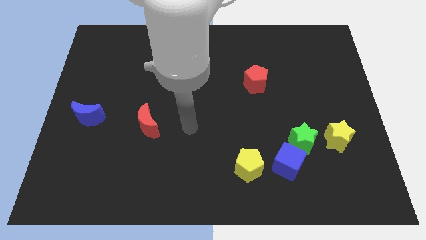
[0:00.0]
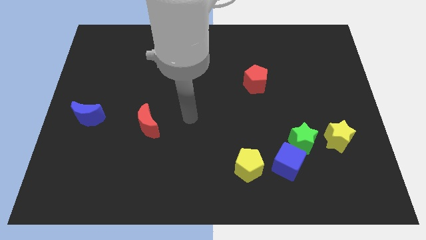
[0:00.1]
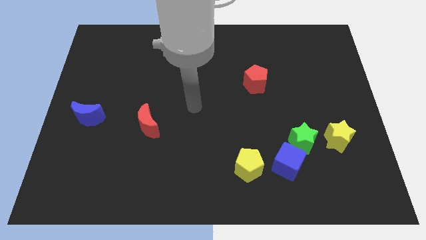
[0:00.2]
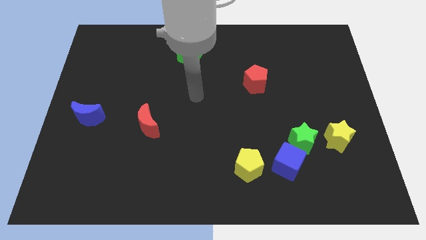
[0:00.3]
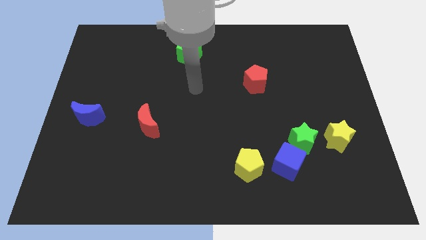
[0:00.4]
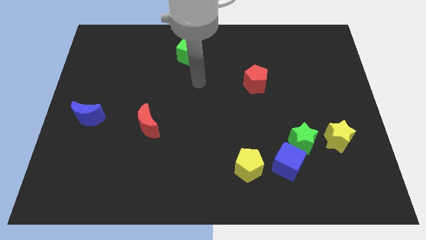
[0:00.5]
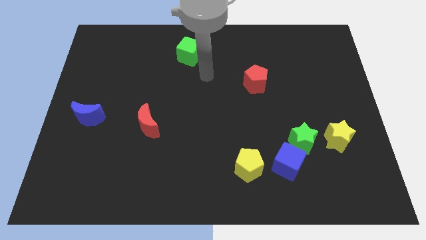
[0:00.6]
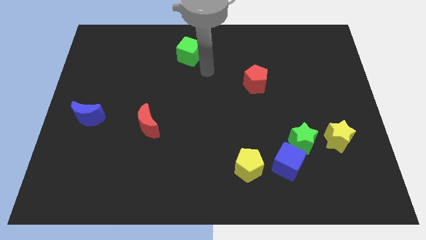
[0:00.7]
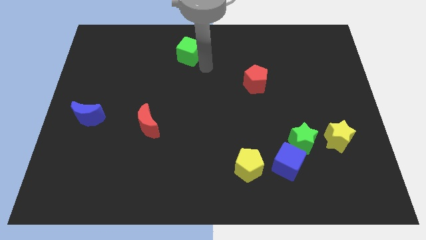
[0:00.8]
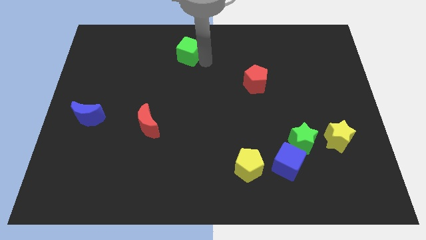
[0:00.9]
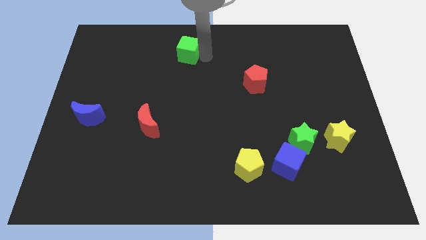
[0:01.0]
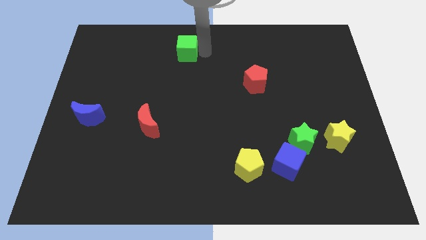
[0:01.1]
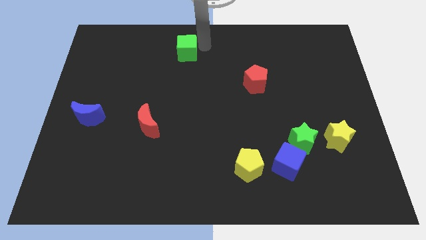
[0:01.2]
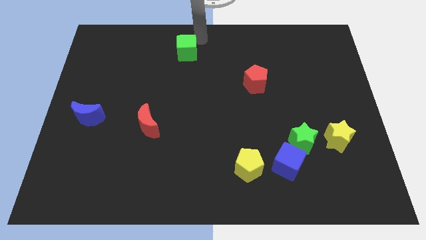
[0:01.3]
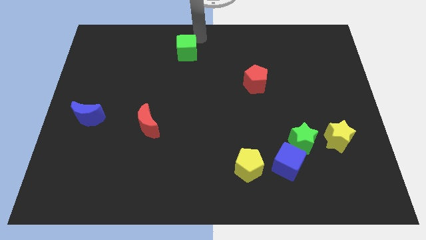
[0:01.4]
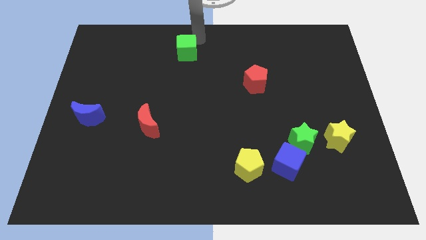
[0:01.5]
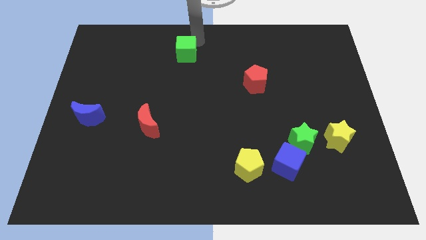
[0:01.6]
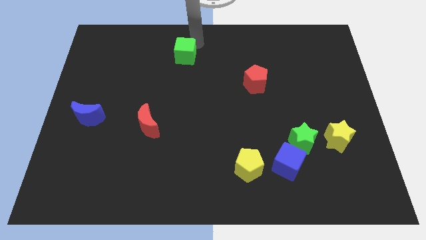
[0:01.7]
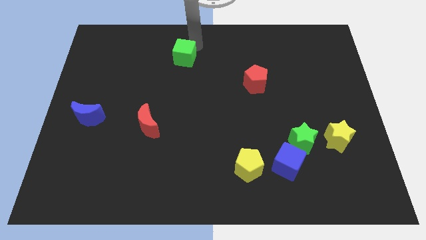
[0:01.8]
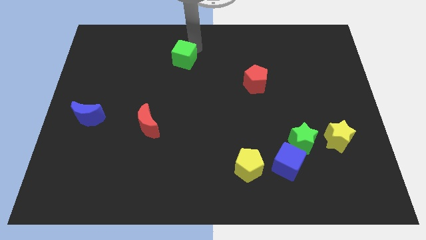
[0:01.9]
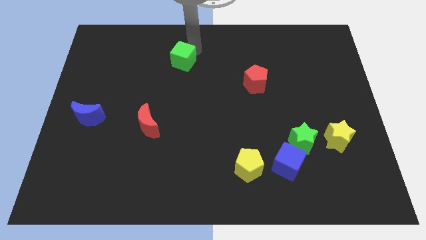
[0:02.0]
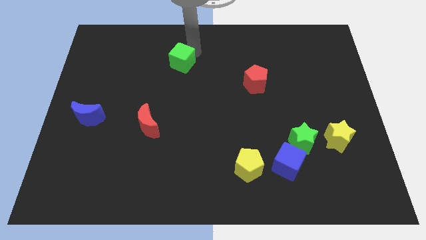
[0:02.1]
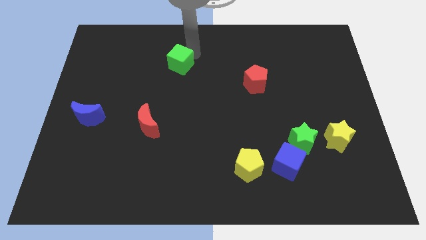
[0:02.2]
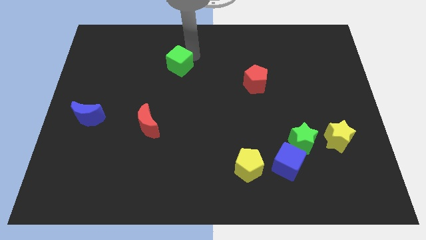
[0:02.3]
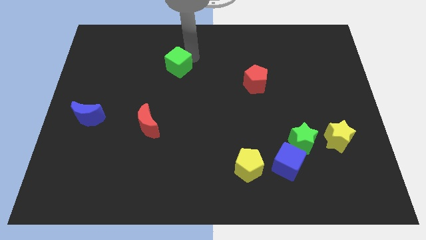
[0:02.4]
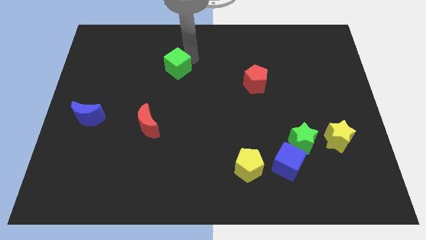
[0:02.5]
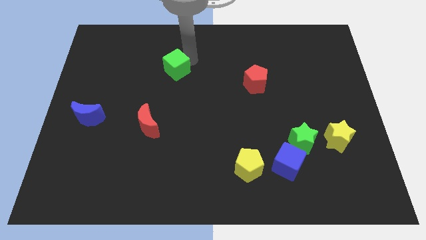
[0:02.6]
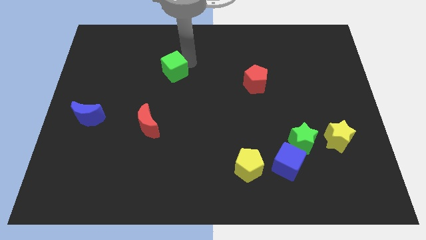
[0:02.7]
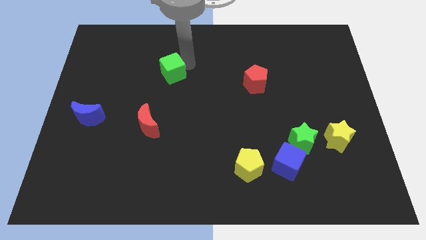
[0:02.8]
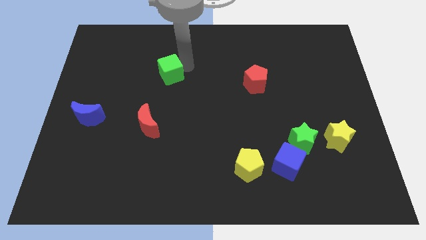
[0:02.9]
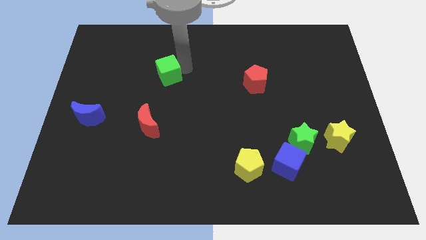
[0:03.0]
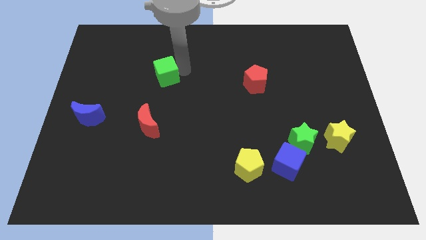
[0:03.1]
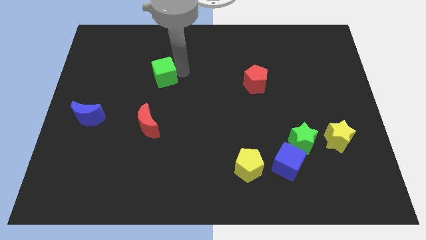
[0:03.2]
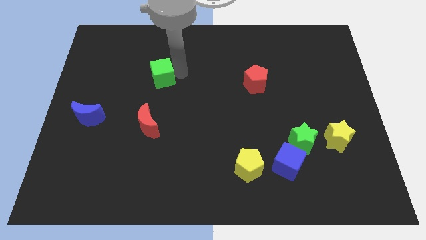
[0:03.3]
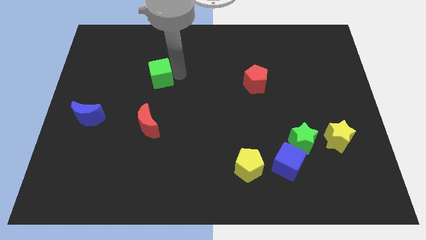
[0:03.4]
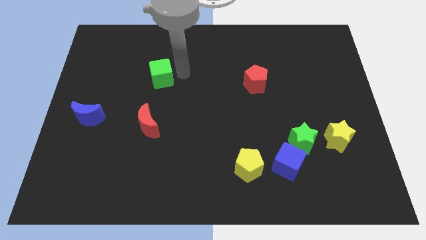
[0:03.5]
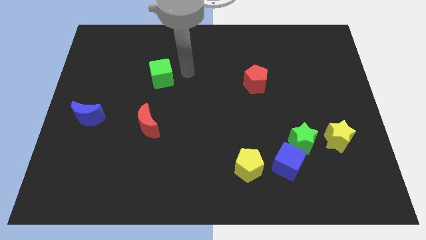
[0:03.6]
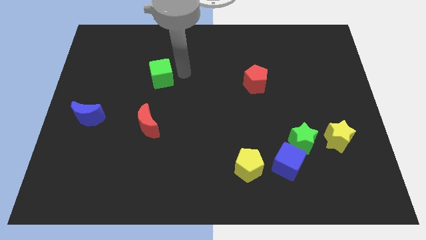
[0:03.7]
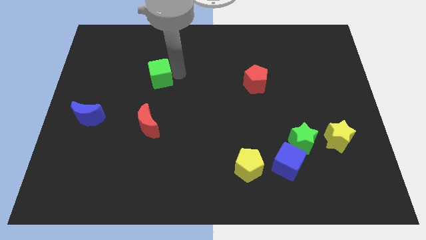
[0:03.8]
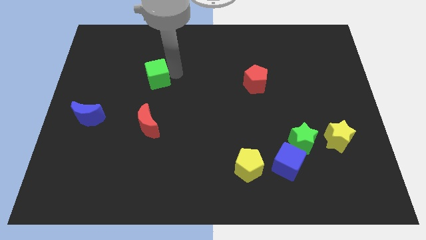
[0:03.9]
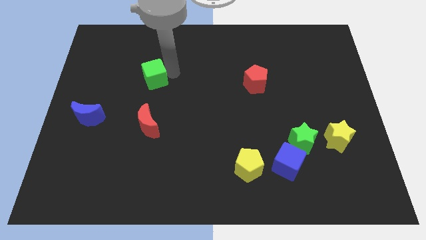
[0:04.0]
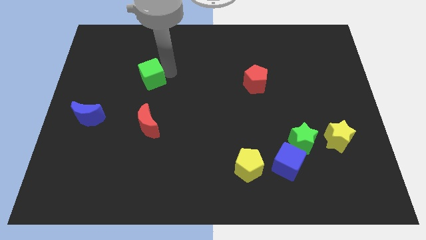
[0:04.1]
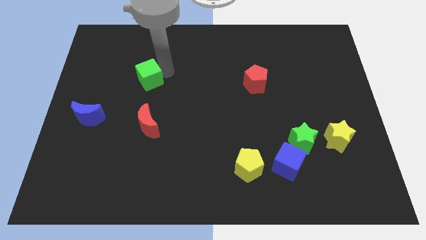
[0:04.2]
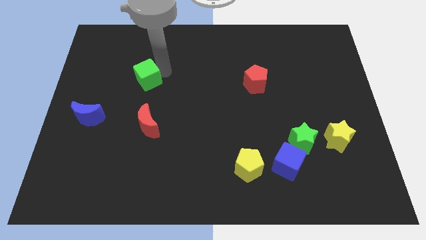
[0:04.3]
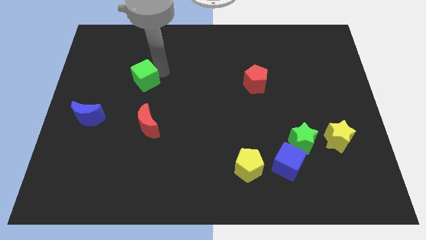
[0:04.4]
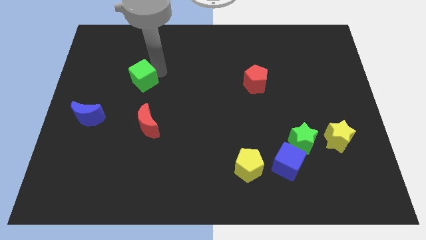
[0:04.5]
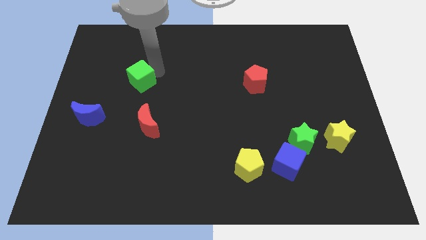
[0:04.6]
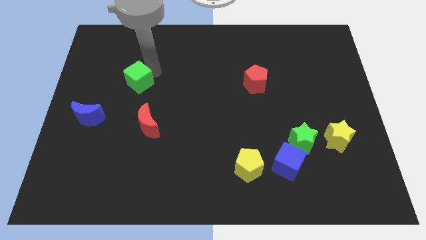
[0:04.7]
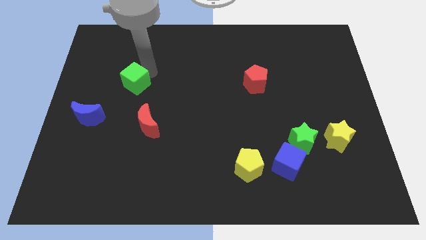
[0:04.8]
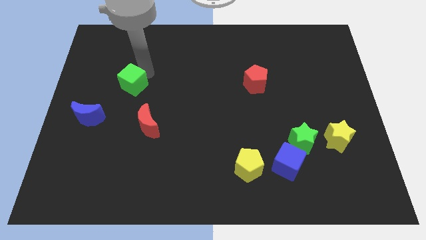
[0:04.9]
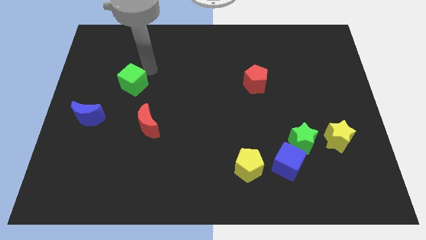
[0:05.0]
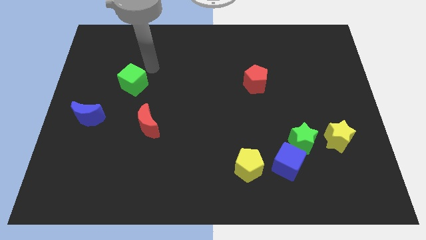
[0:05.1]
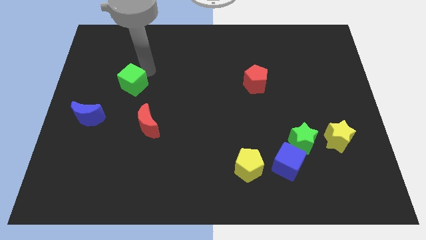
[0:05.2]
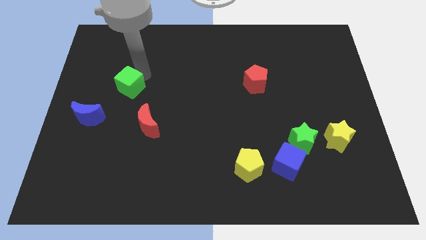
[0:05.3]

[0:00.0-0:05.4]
put the green cube to the top right side of the blue moon

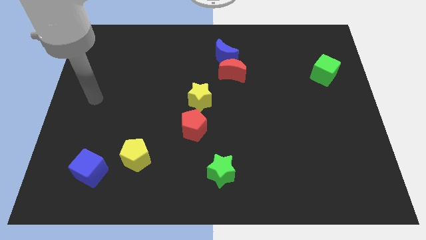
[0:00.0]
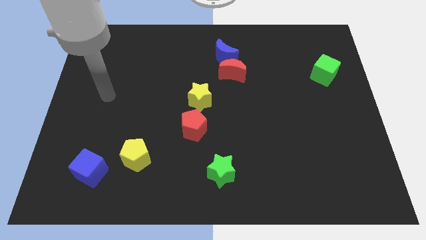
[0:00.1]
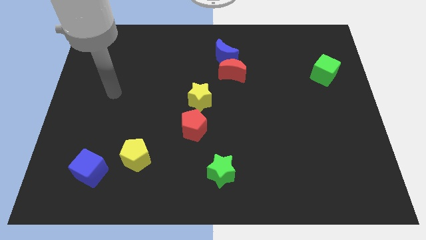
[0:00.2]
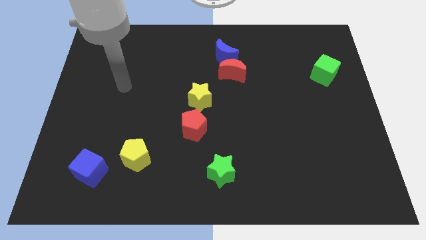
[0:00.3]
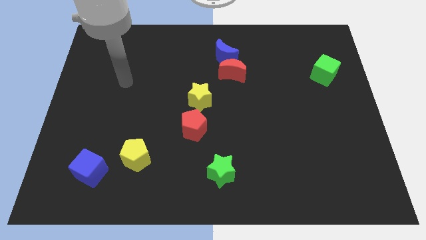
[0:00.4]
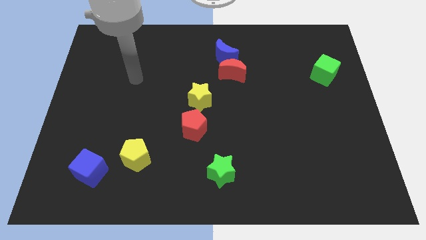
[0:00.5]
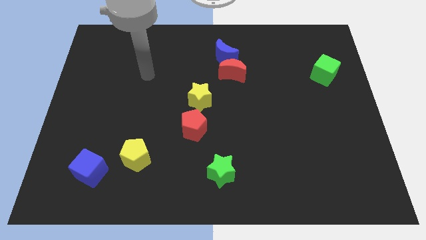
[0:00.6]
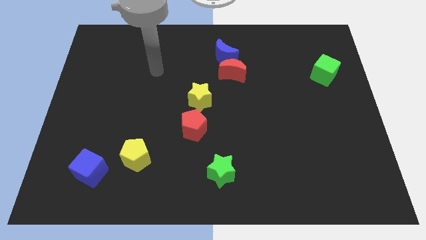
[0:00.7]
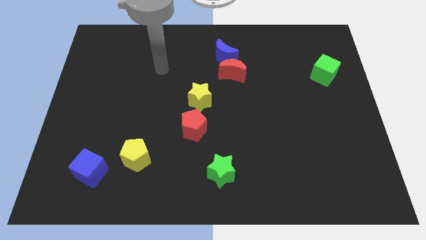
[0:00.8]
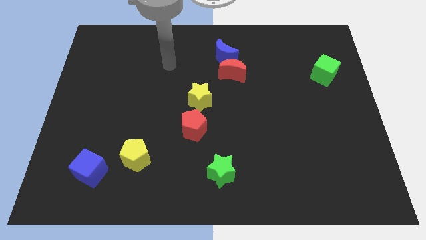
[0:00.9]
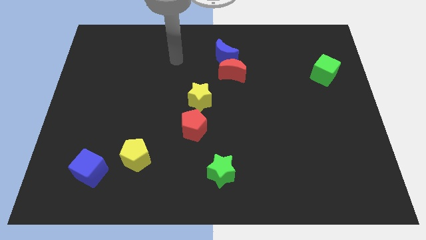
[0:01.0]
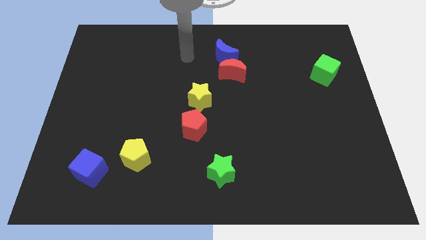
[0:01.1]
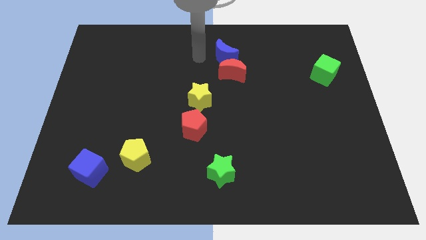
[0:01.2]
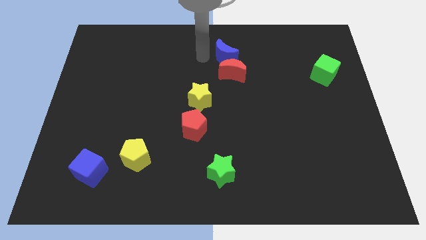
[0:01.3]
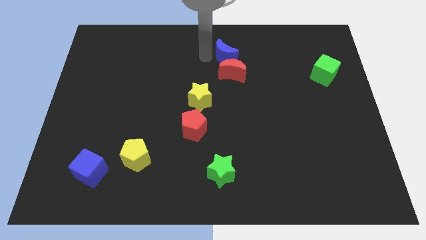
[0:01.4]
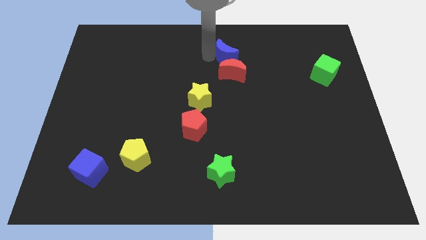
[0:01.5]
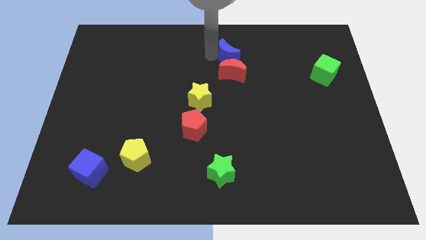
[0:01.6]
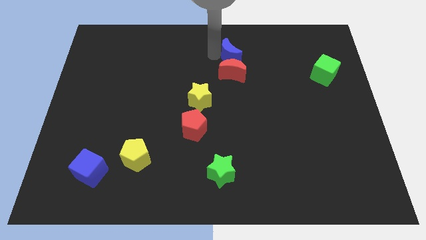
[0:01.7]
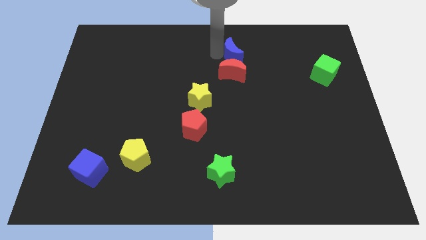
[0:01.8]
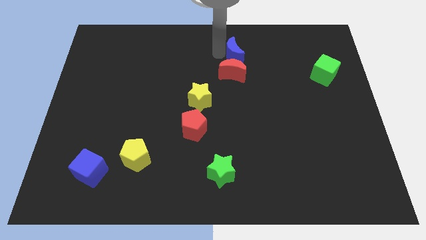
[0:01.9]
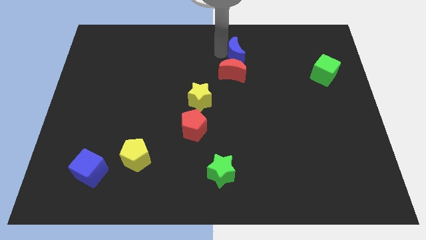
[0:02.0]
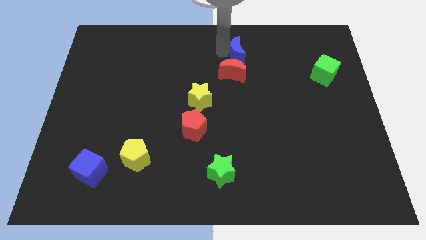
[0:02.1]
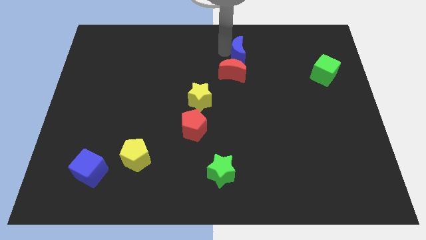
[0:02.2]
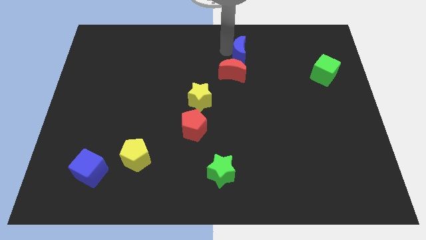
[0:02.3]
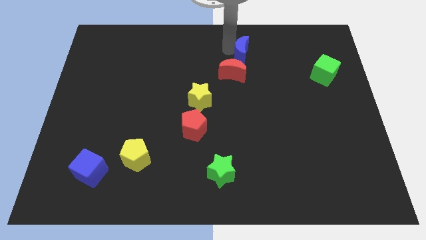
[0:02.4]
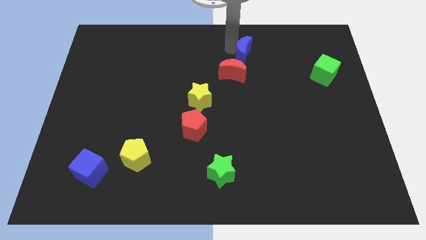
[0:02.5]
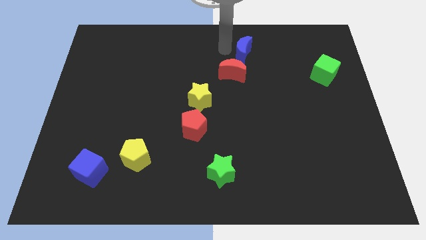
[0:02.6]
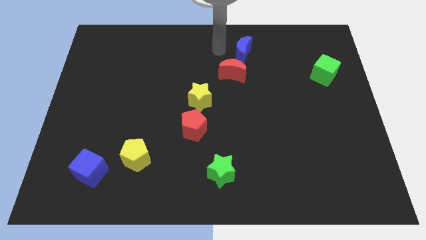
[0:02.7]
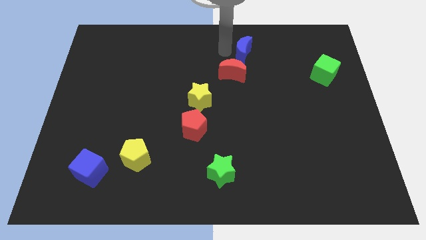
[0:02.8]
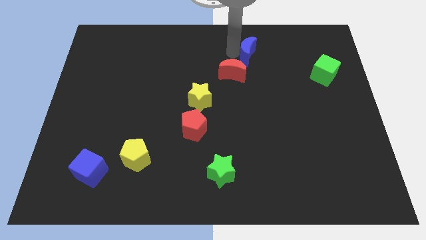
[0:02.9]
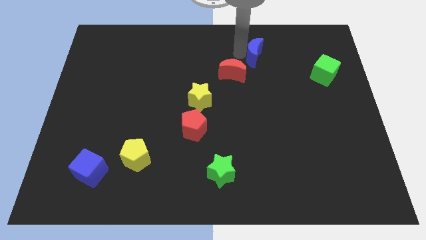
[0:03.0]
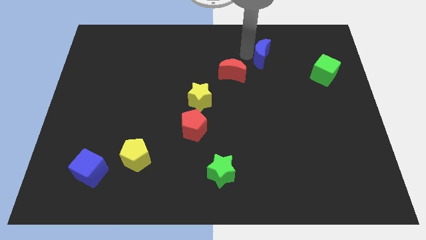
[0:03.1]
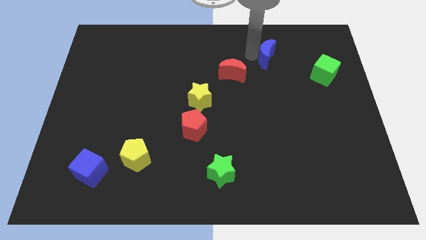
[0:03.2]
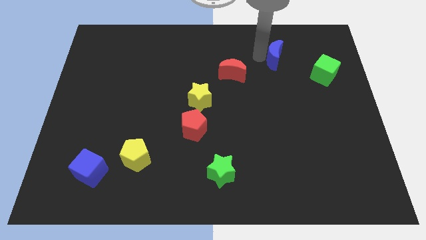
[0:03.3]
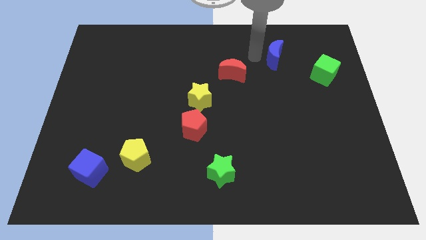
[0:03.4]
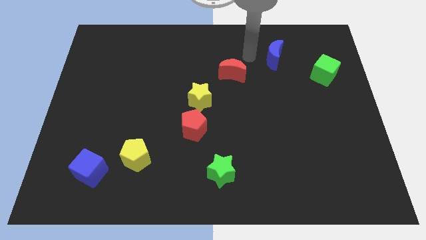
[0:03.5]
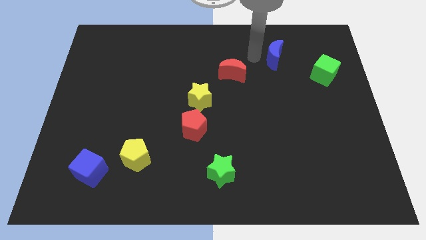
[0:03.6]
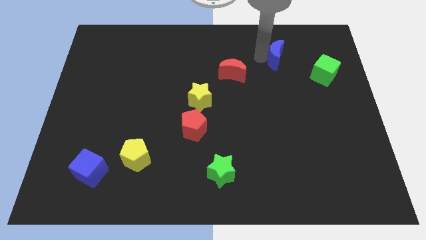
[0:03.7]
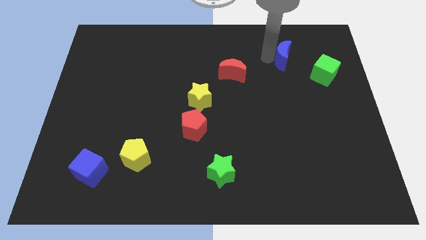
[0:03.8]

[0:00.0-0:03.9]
slide the blue moon to the top left of the green cube
